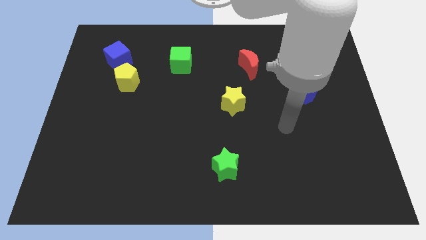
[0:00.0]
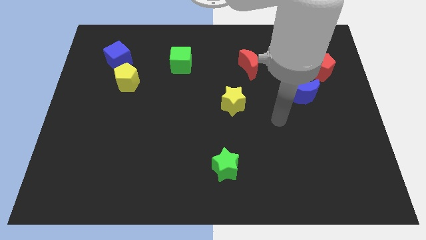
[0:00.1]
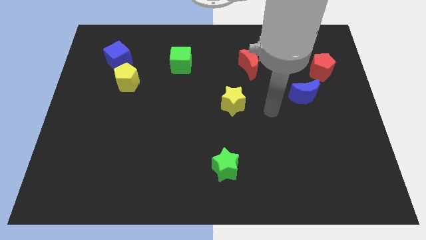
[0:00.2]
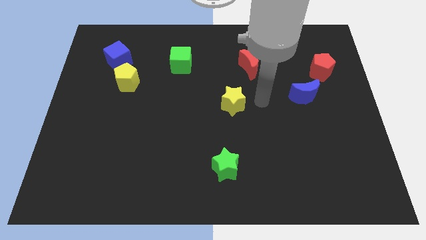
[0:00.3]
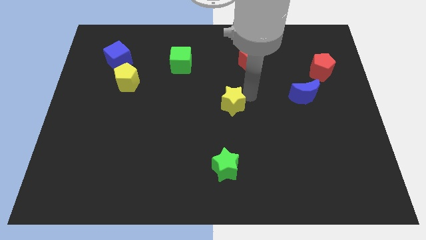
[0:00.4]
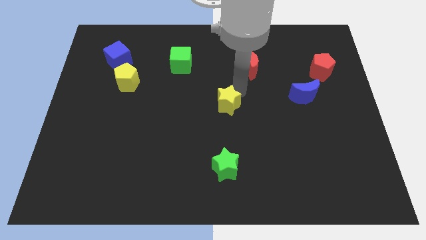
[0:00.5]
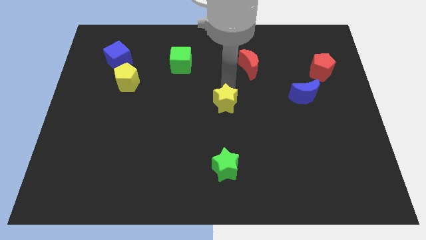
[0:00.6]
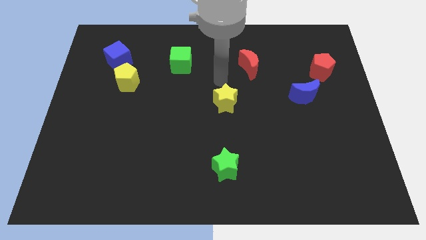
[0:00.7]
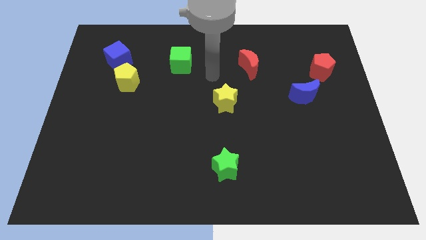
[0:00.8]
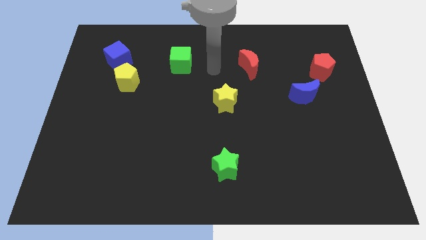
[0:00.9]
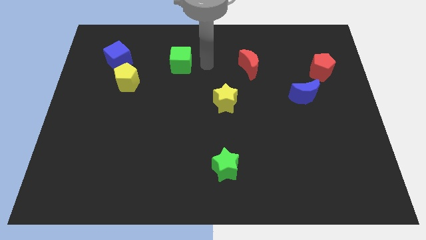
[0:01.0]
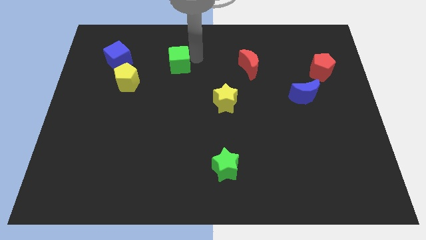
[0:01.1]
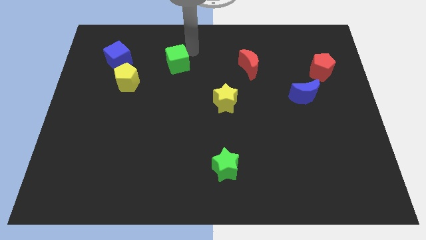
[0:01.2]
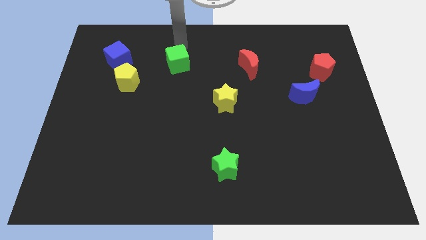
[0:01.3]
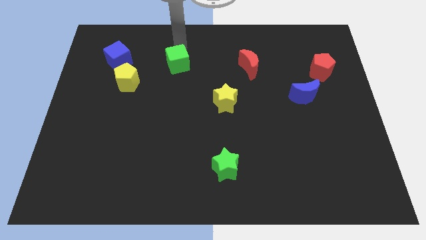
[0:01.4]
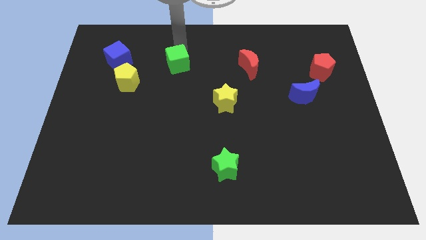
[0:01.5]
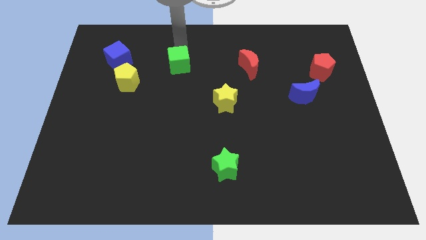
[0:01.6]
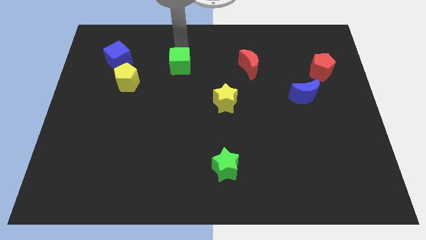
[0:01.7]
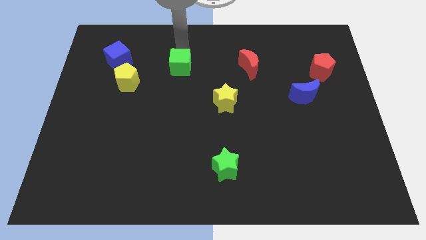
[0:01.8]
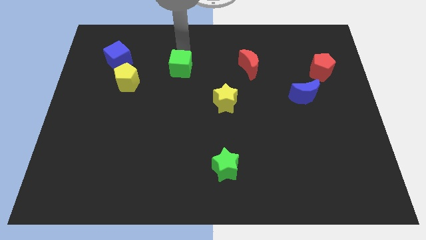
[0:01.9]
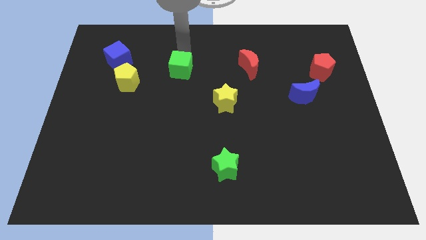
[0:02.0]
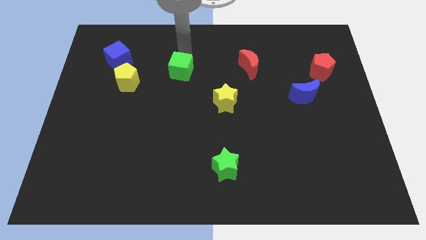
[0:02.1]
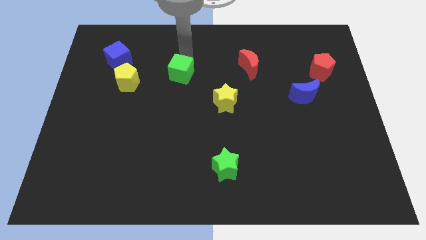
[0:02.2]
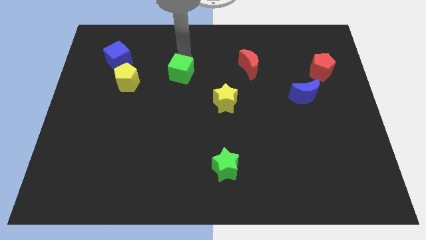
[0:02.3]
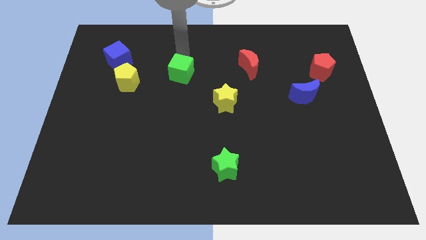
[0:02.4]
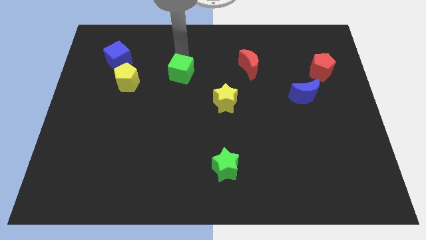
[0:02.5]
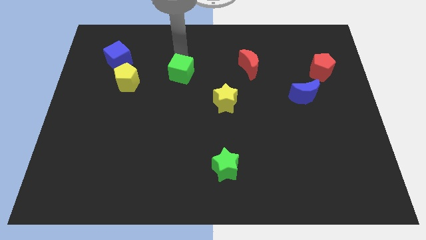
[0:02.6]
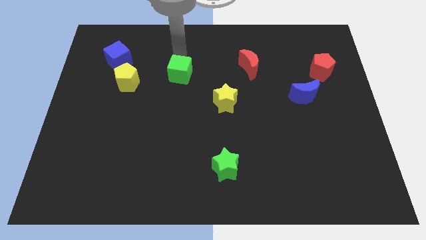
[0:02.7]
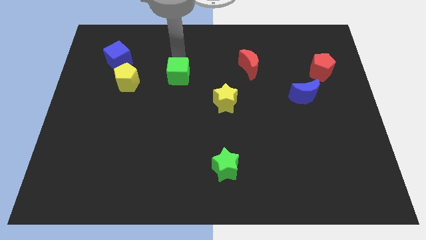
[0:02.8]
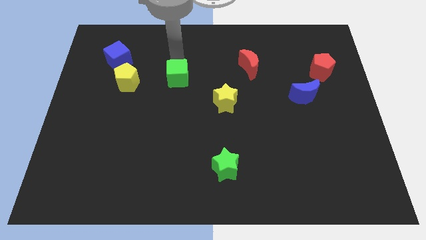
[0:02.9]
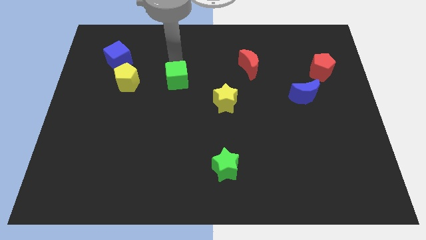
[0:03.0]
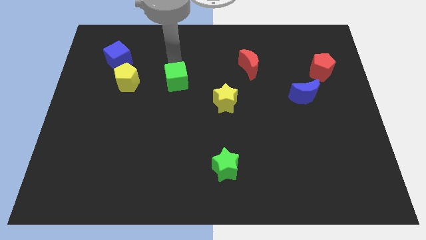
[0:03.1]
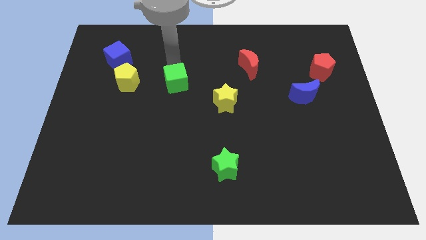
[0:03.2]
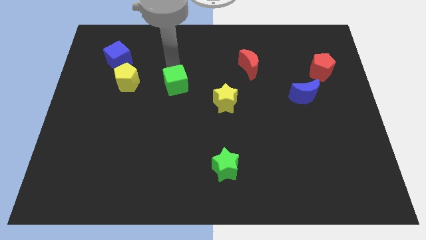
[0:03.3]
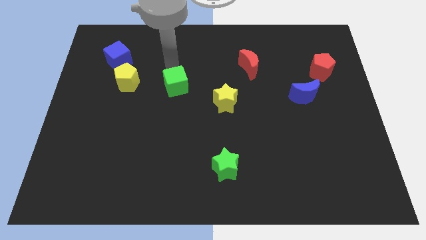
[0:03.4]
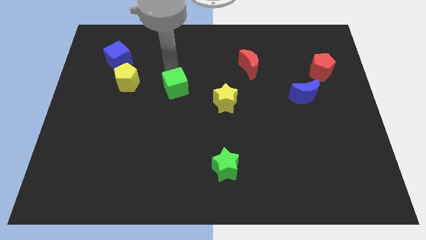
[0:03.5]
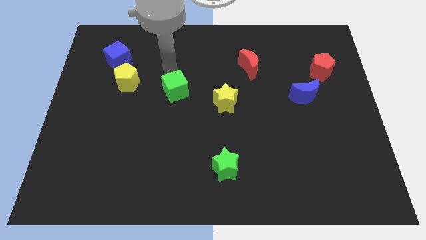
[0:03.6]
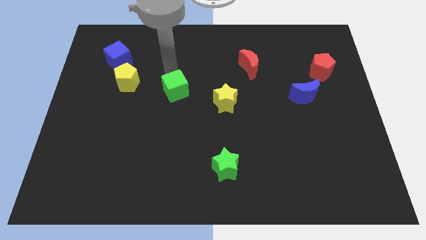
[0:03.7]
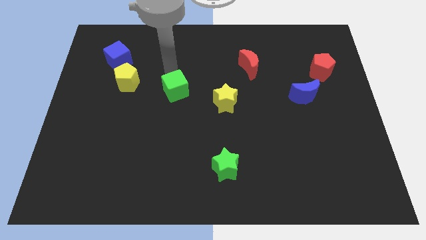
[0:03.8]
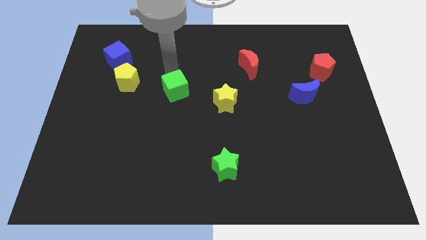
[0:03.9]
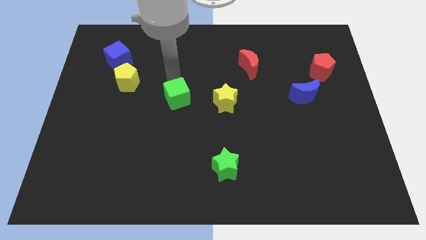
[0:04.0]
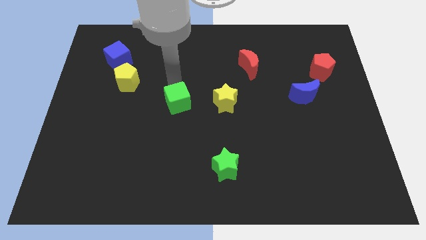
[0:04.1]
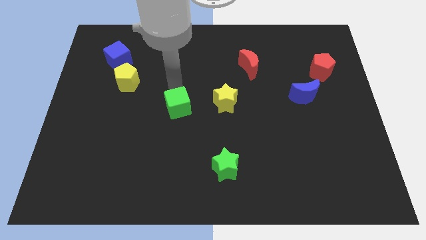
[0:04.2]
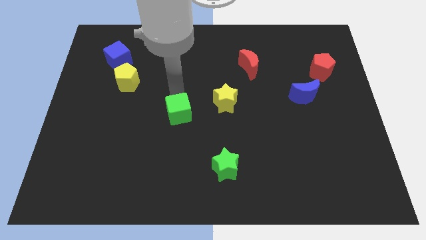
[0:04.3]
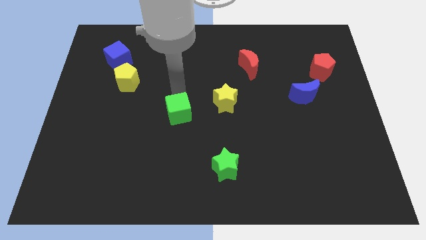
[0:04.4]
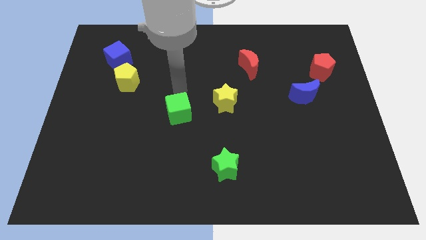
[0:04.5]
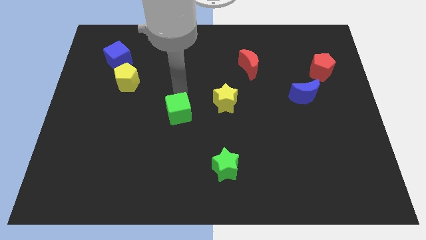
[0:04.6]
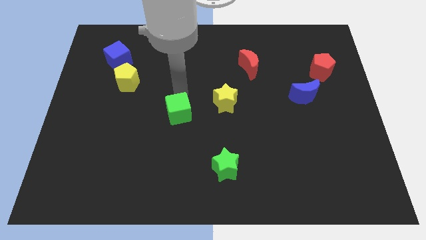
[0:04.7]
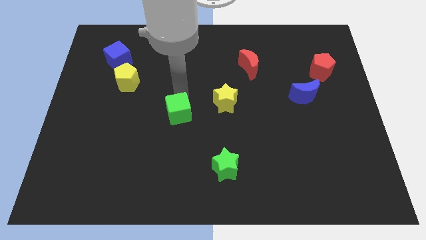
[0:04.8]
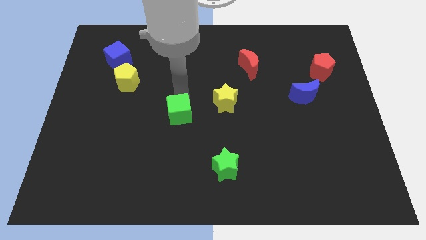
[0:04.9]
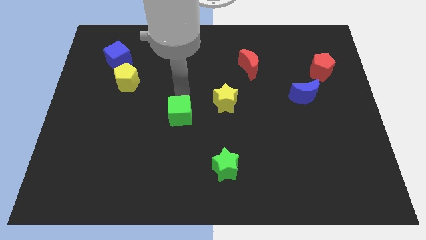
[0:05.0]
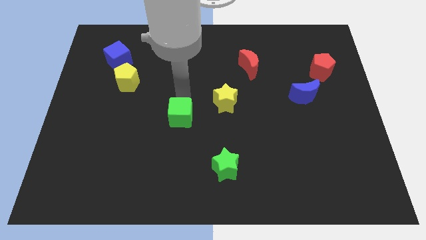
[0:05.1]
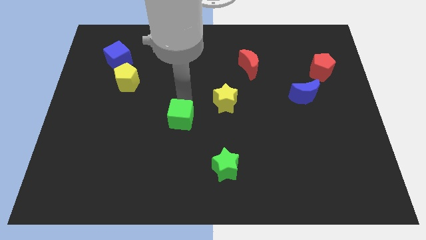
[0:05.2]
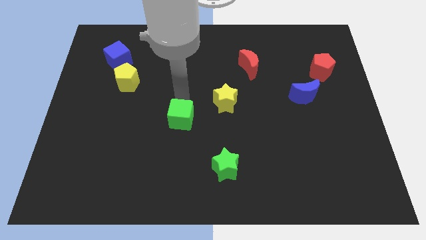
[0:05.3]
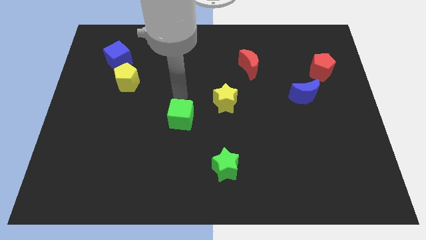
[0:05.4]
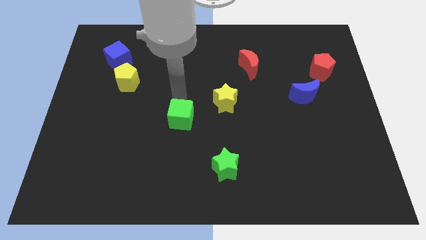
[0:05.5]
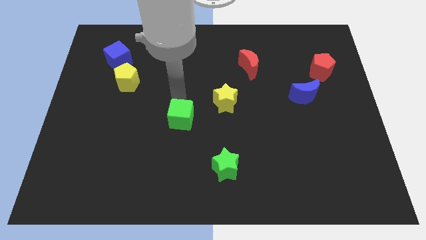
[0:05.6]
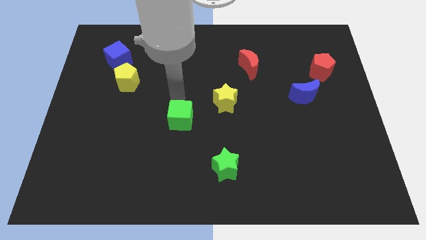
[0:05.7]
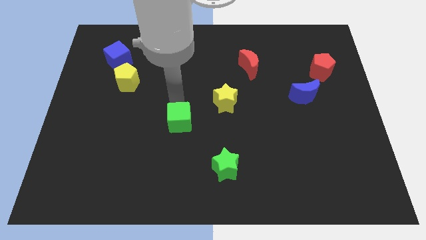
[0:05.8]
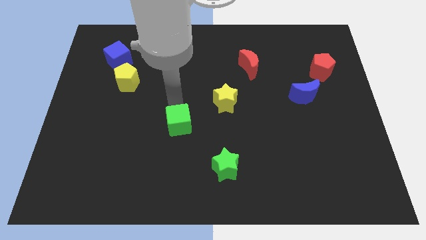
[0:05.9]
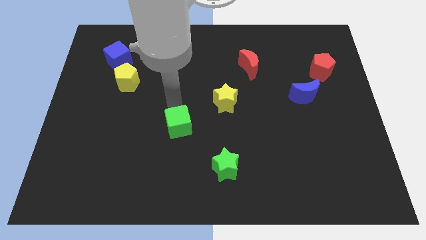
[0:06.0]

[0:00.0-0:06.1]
slide the green cube down

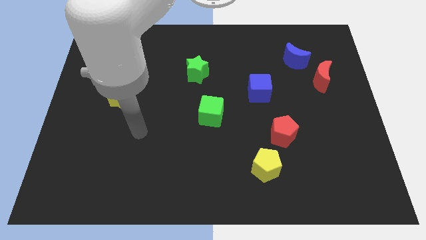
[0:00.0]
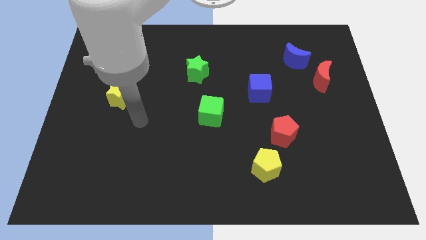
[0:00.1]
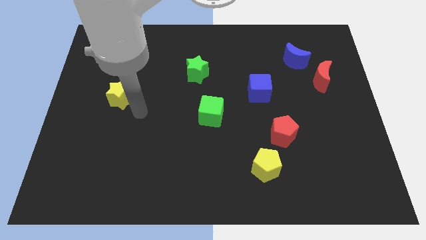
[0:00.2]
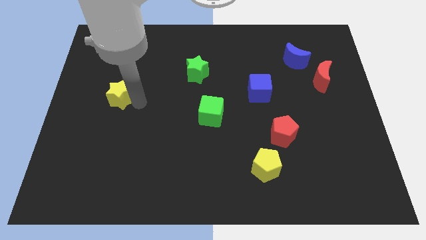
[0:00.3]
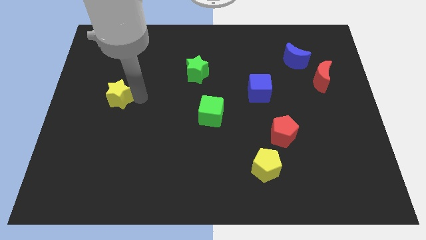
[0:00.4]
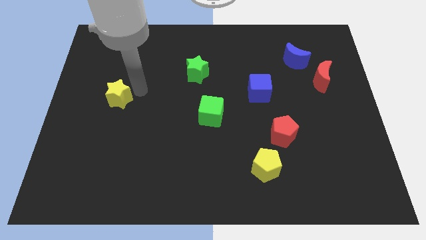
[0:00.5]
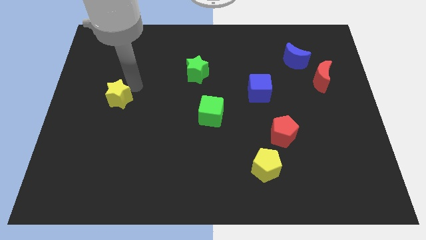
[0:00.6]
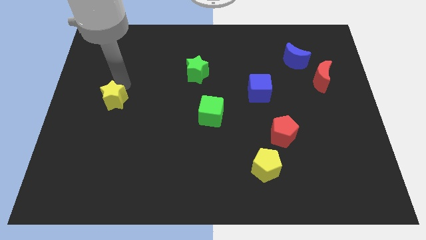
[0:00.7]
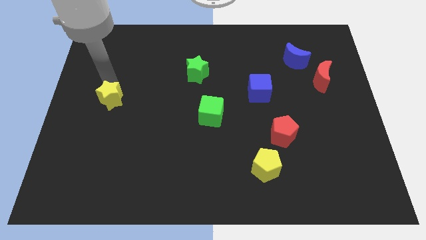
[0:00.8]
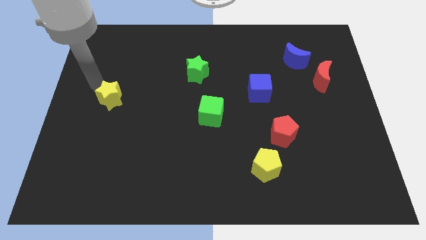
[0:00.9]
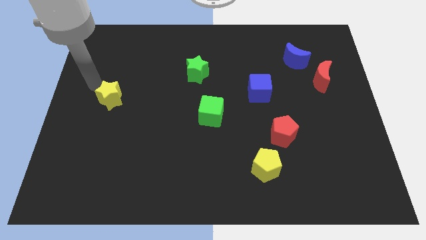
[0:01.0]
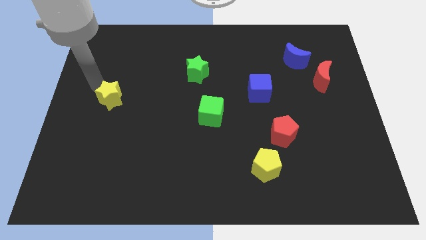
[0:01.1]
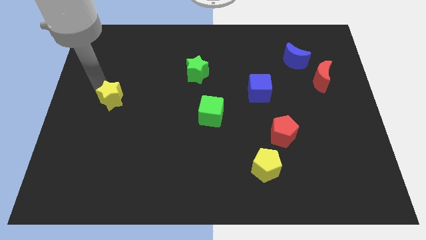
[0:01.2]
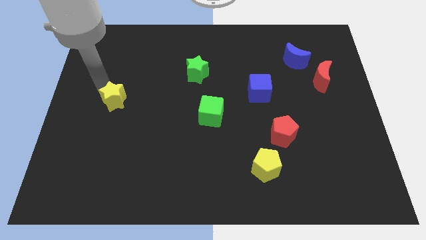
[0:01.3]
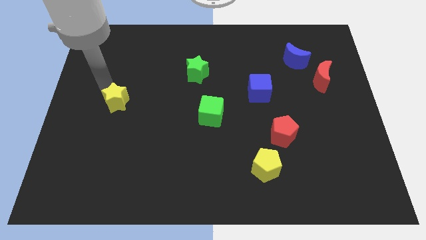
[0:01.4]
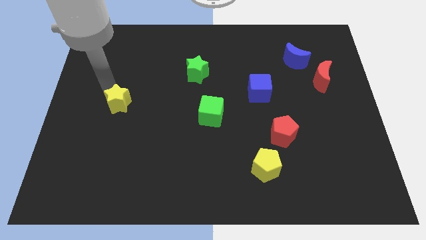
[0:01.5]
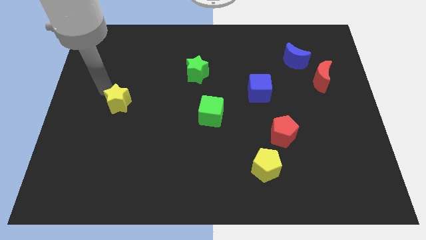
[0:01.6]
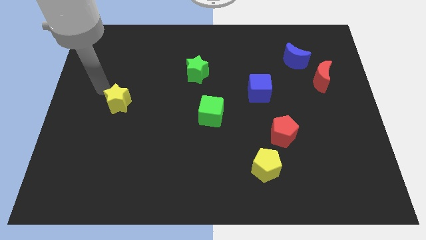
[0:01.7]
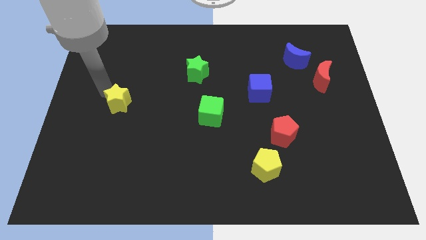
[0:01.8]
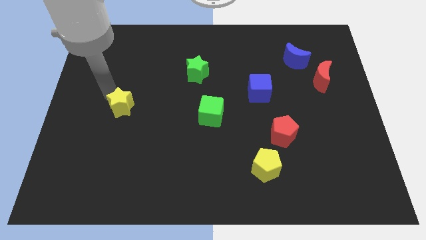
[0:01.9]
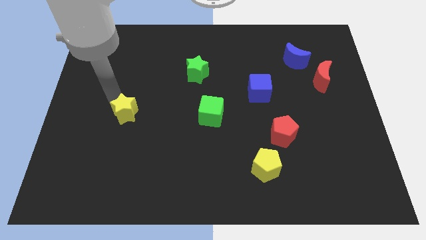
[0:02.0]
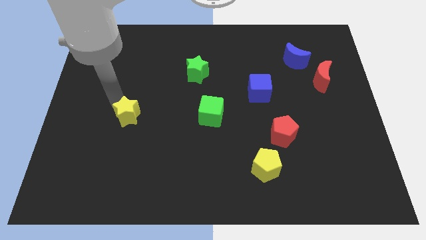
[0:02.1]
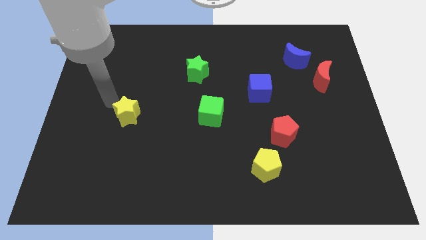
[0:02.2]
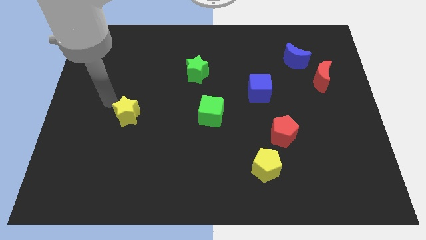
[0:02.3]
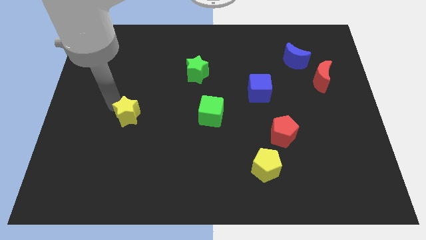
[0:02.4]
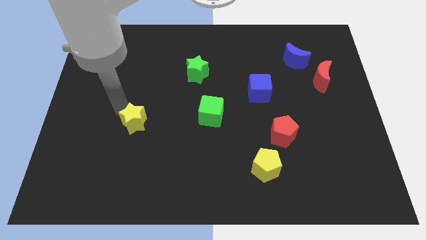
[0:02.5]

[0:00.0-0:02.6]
slide the yellow star a bit down and to the right
